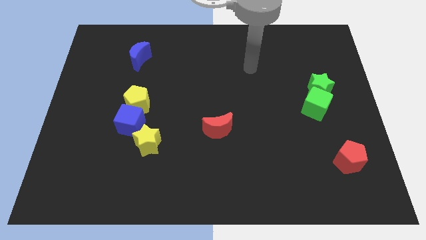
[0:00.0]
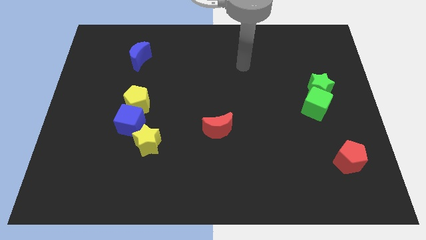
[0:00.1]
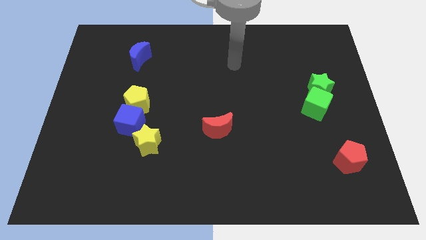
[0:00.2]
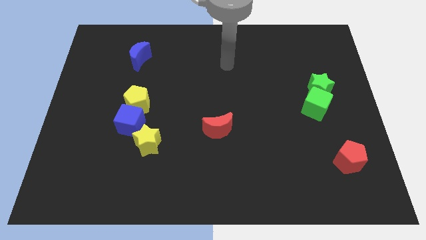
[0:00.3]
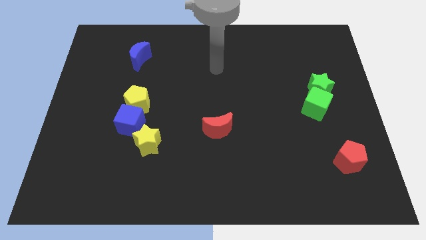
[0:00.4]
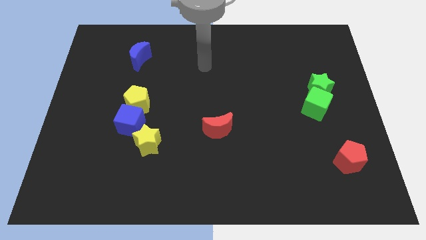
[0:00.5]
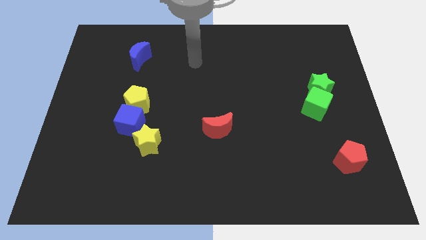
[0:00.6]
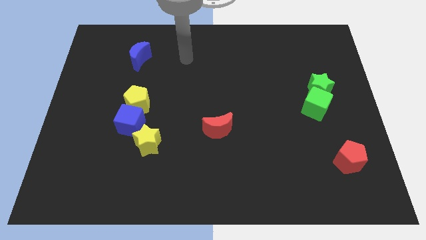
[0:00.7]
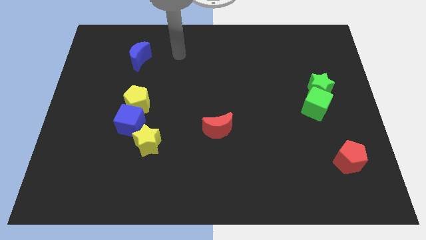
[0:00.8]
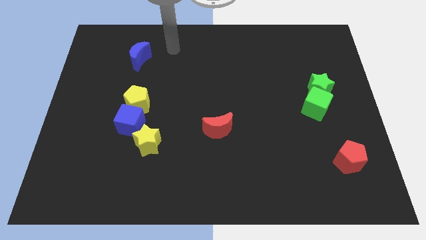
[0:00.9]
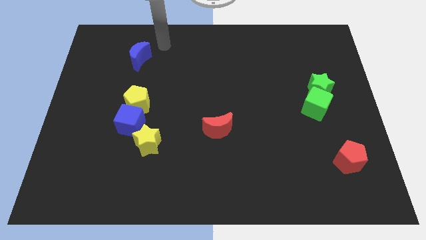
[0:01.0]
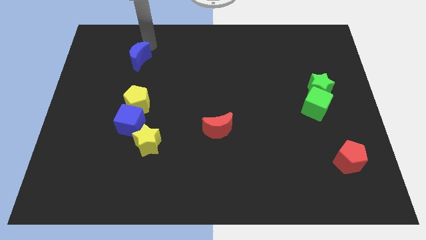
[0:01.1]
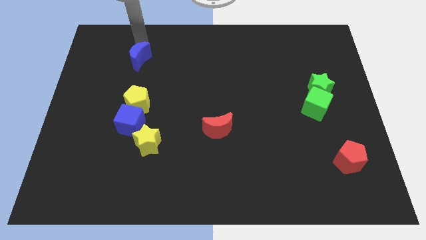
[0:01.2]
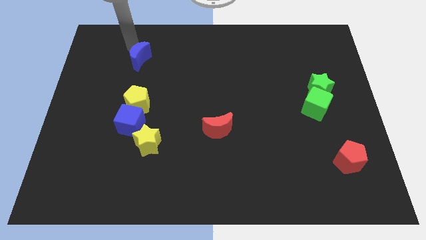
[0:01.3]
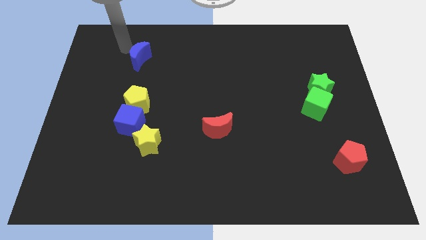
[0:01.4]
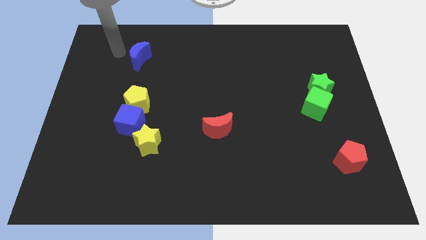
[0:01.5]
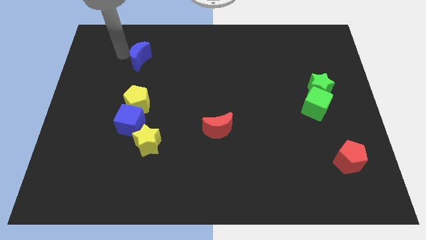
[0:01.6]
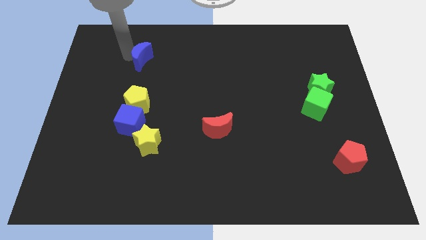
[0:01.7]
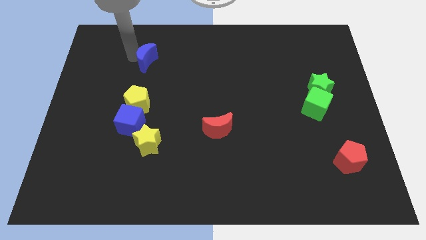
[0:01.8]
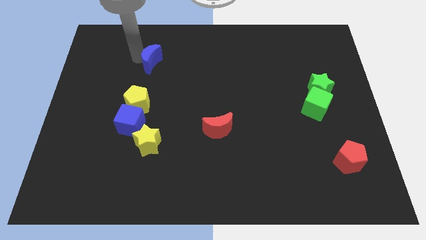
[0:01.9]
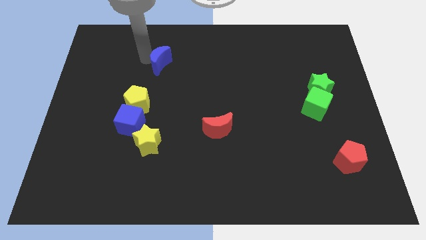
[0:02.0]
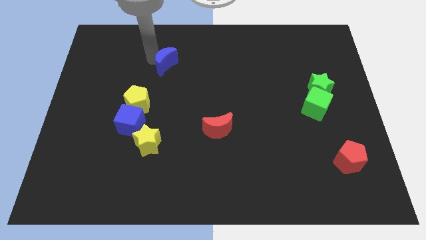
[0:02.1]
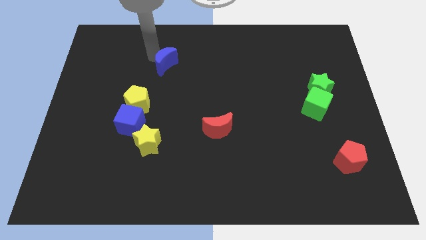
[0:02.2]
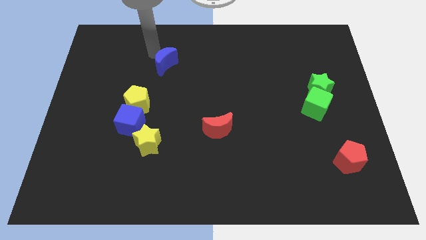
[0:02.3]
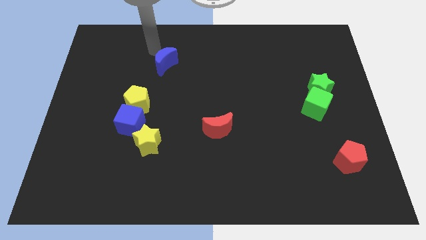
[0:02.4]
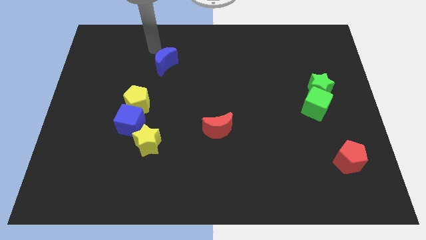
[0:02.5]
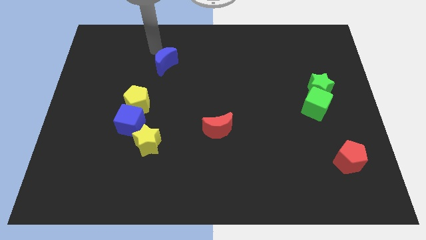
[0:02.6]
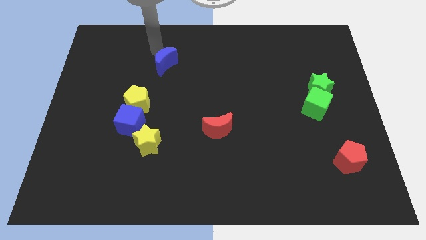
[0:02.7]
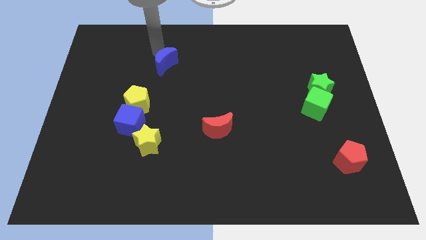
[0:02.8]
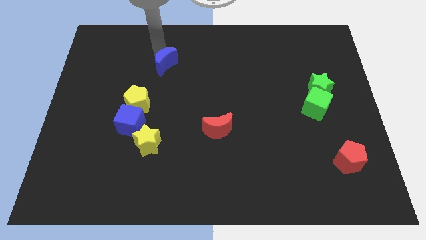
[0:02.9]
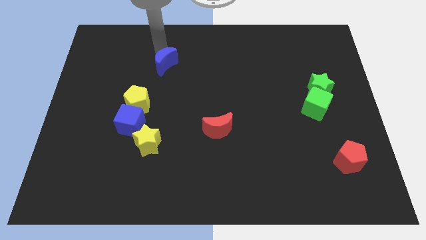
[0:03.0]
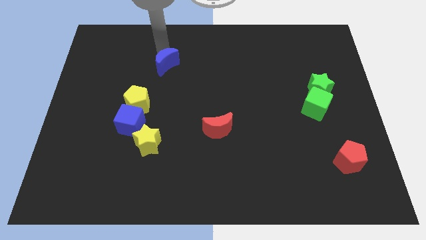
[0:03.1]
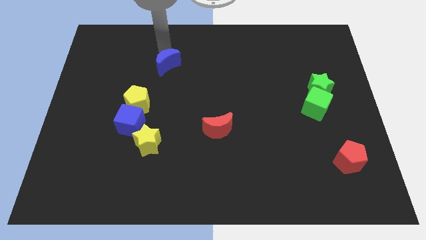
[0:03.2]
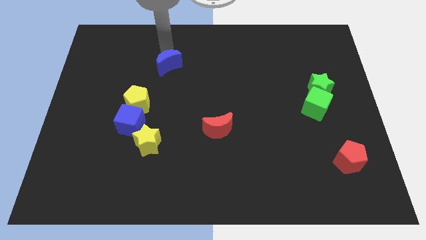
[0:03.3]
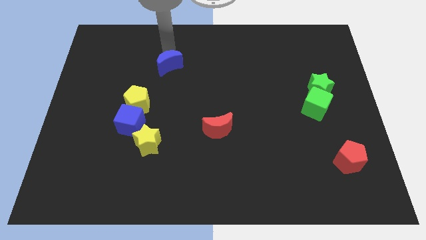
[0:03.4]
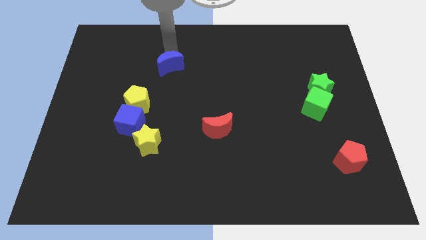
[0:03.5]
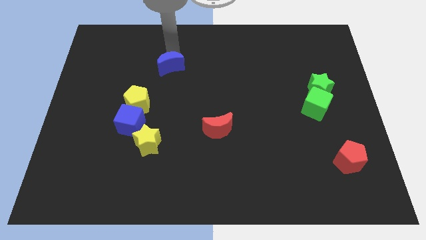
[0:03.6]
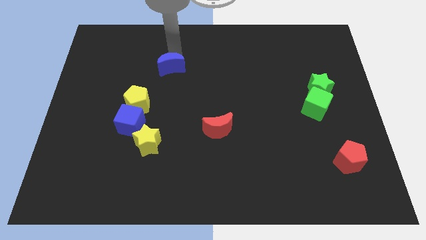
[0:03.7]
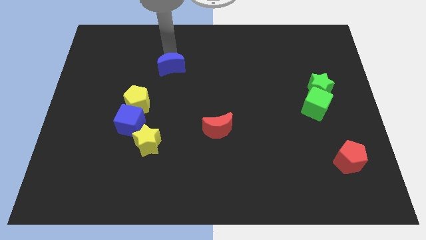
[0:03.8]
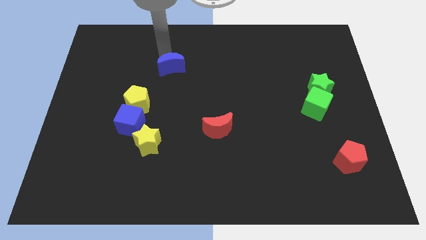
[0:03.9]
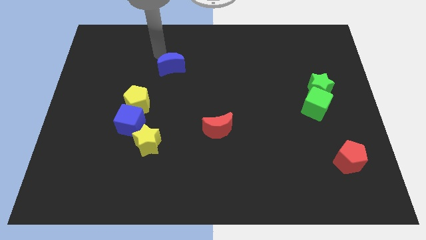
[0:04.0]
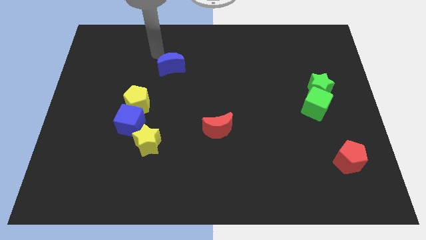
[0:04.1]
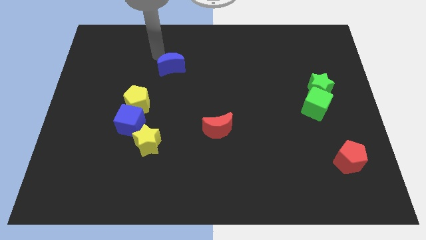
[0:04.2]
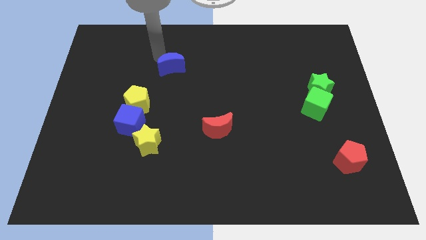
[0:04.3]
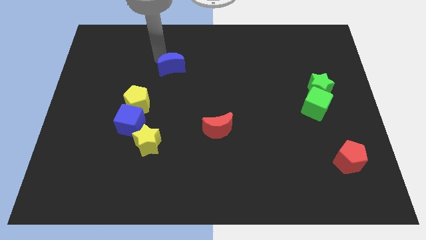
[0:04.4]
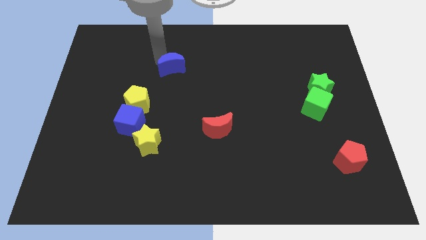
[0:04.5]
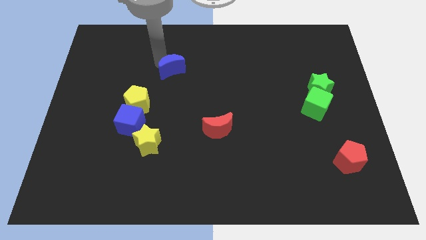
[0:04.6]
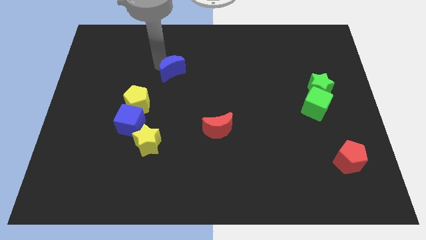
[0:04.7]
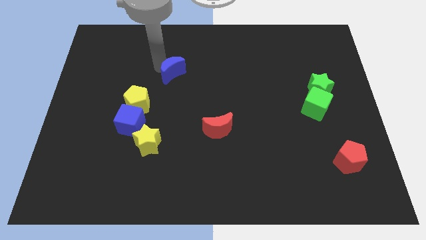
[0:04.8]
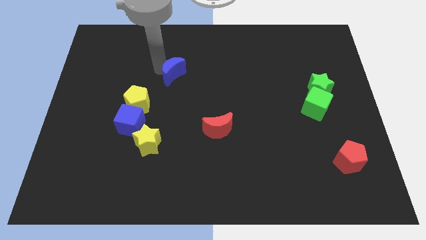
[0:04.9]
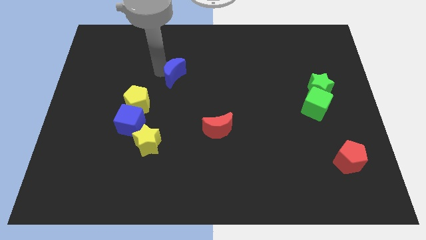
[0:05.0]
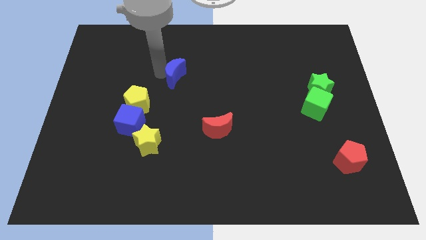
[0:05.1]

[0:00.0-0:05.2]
move the blue moon to the middle
